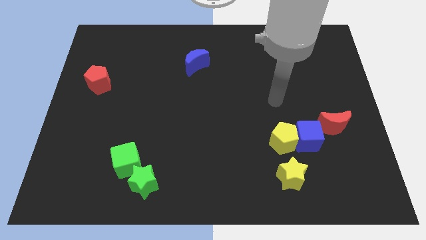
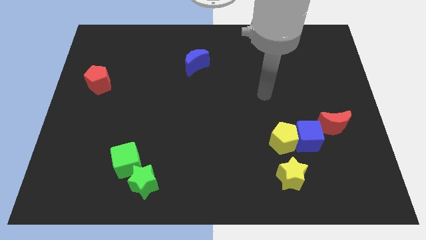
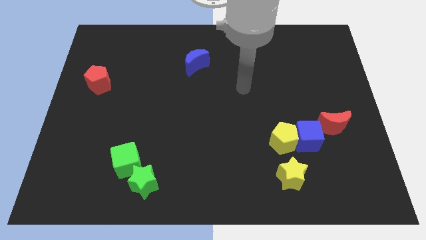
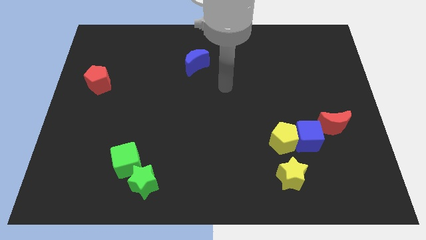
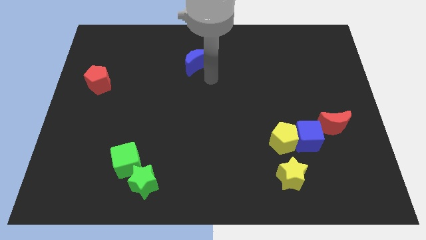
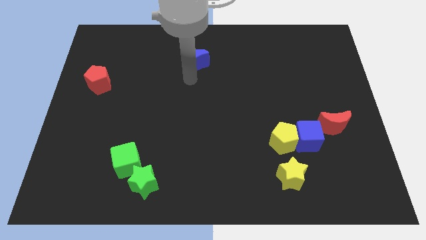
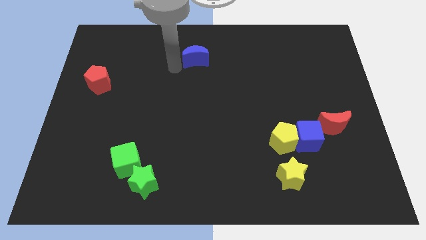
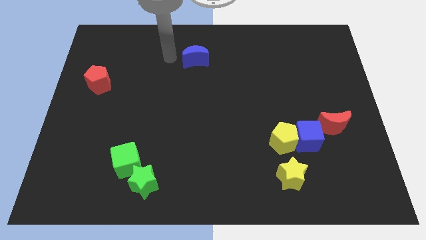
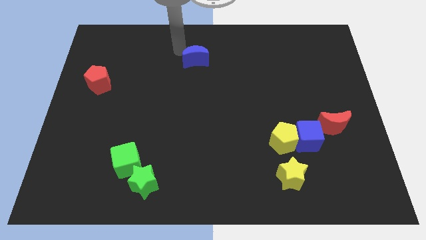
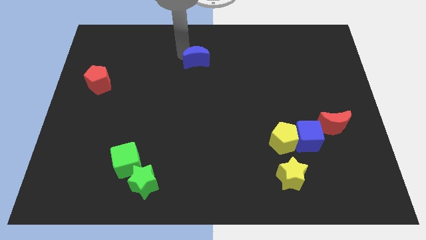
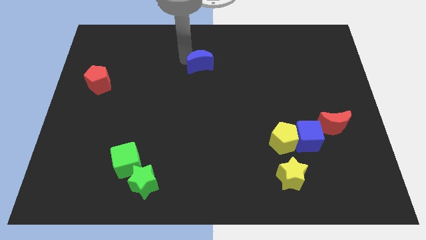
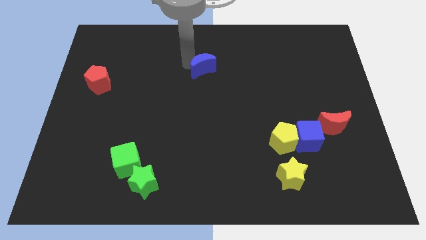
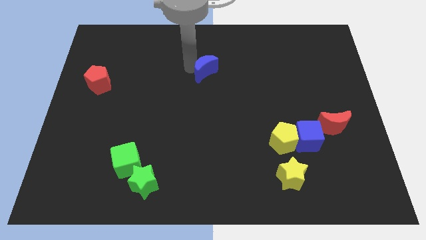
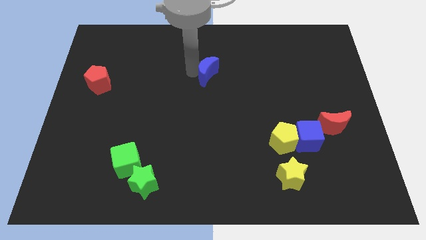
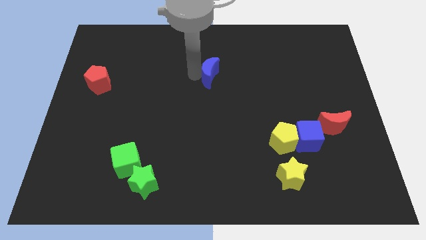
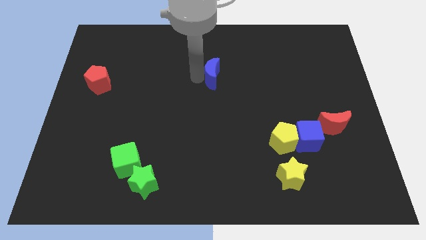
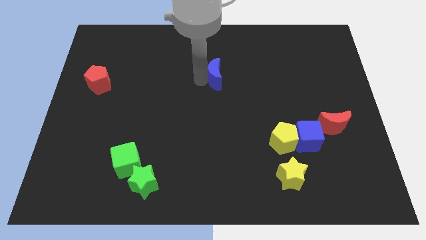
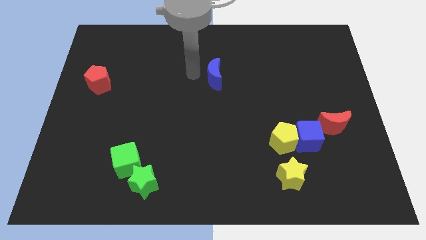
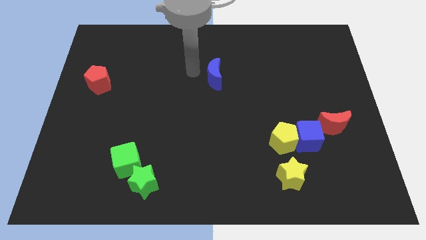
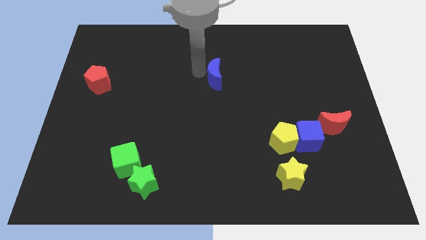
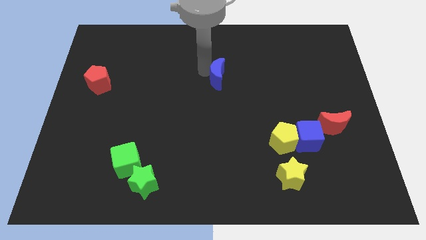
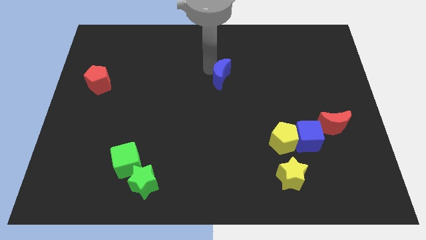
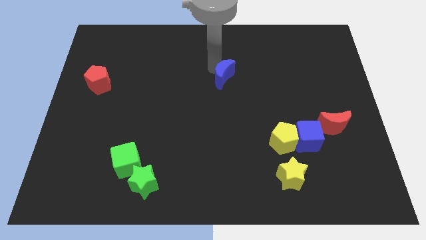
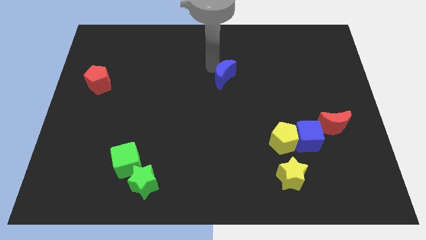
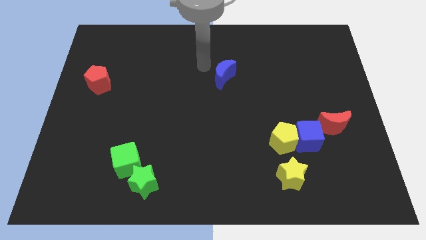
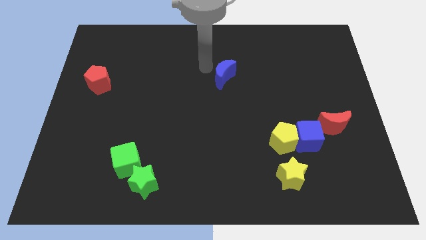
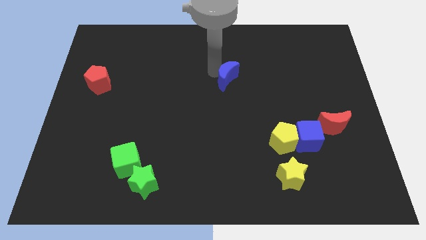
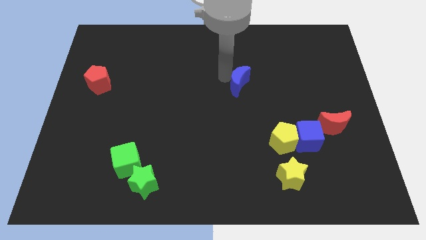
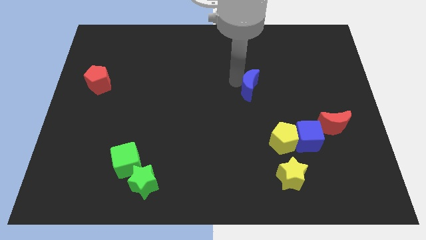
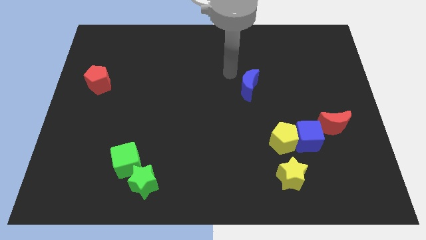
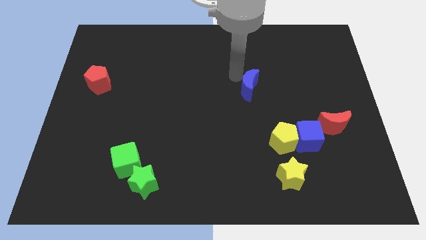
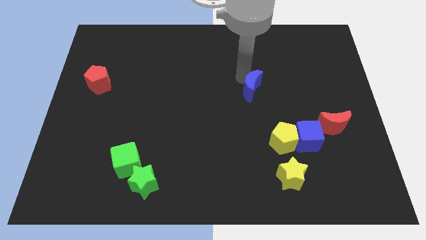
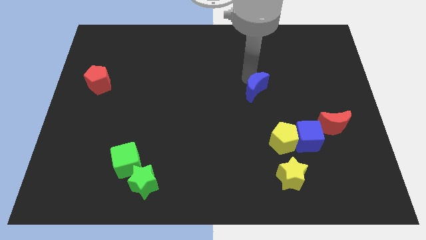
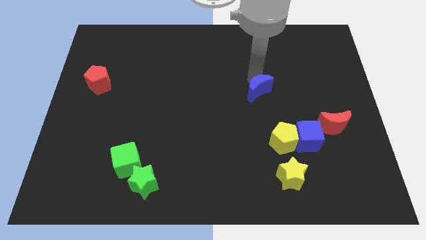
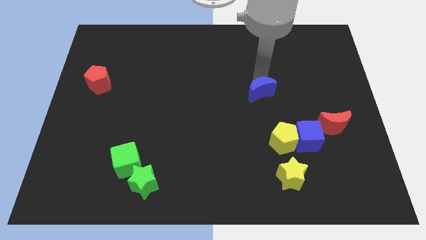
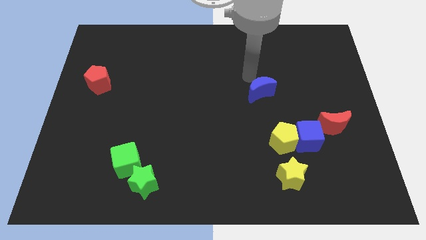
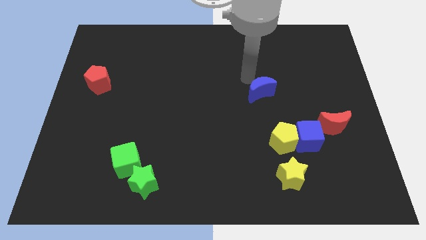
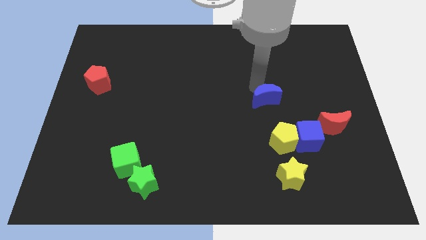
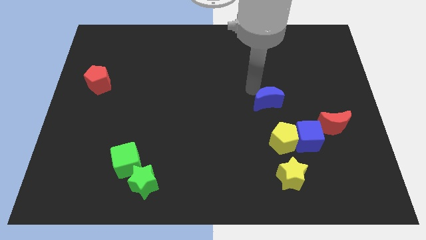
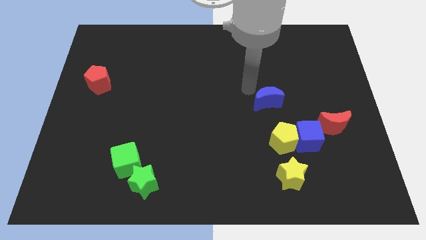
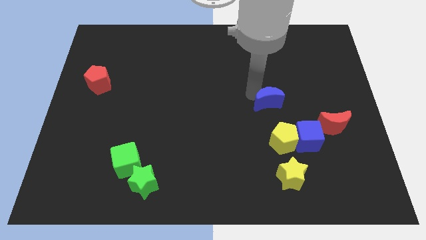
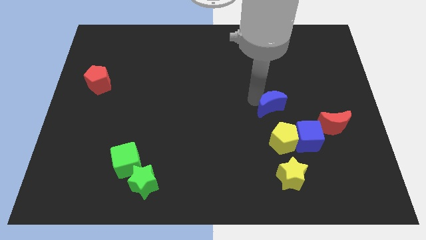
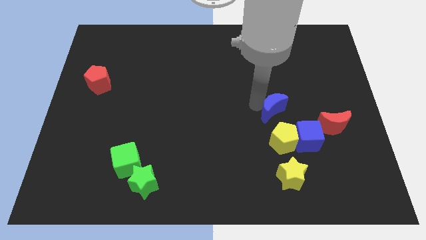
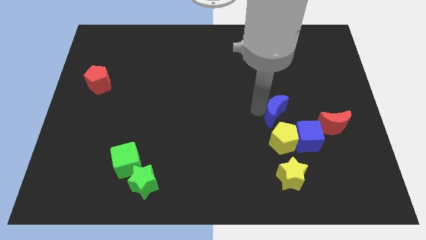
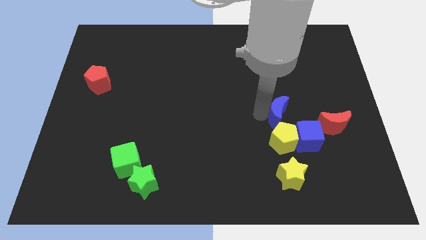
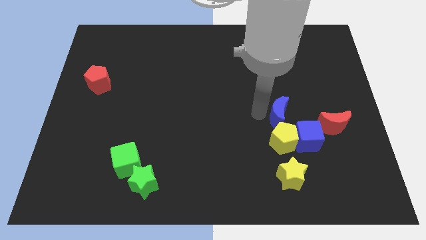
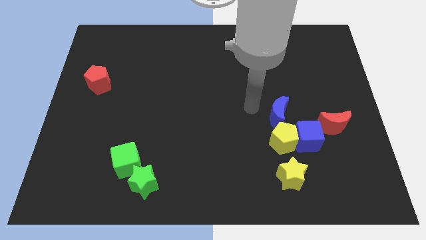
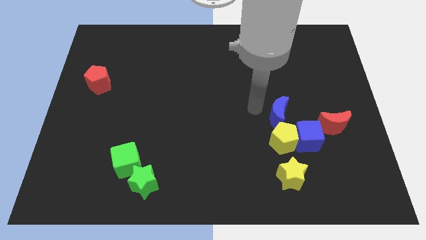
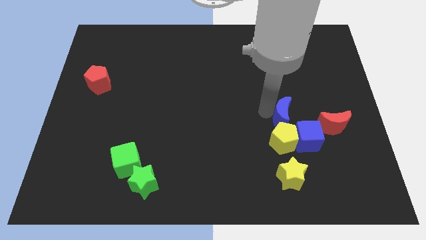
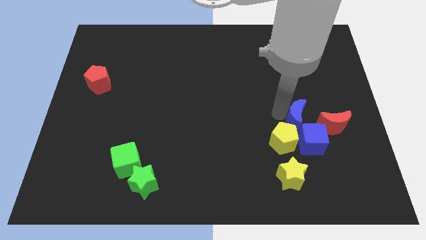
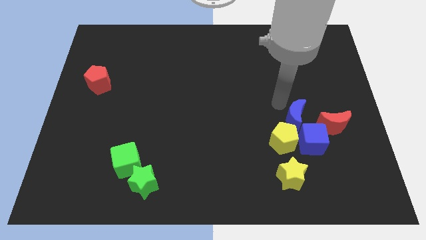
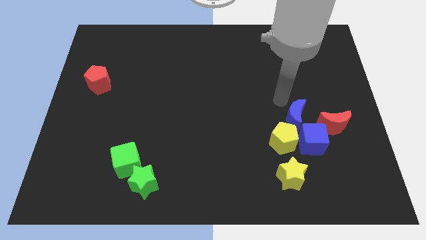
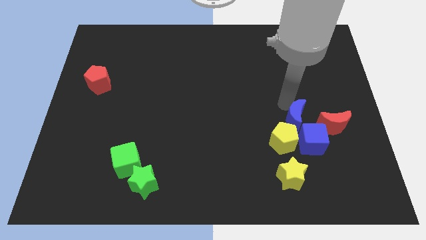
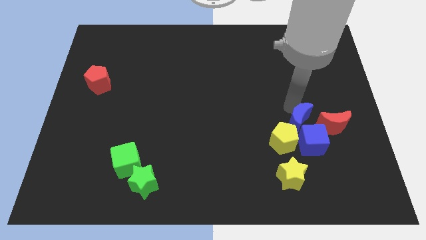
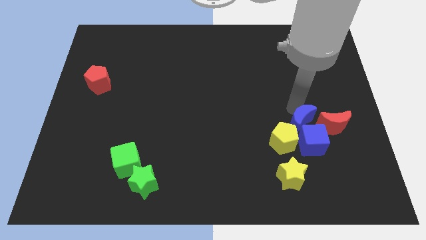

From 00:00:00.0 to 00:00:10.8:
put the blue moon next to the blue cube

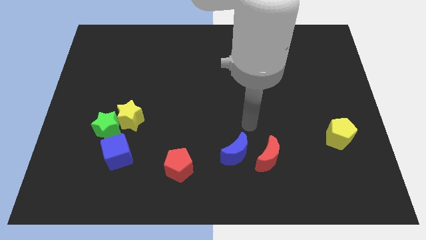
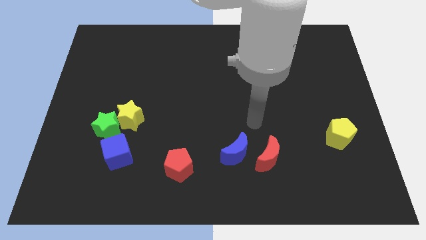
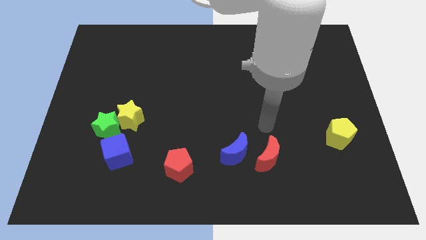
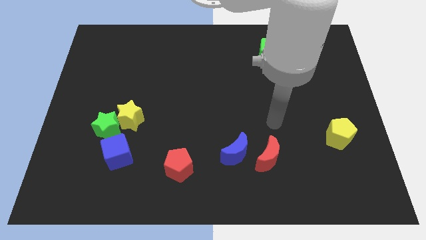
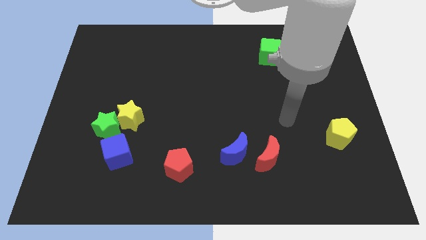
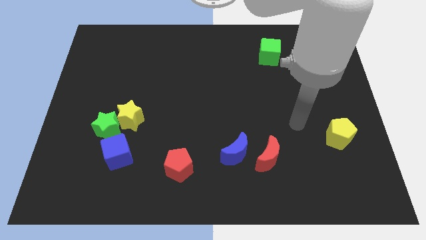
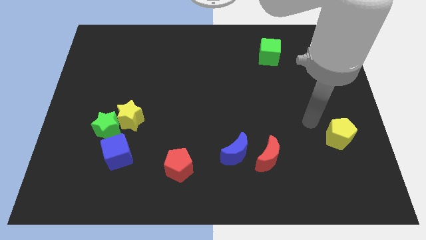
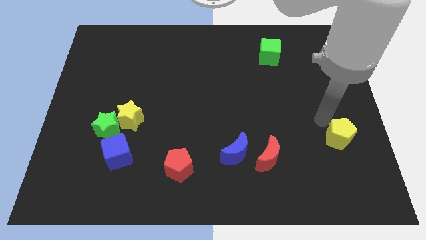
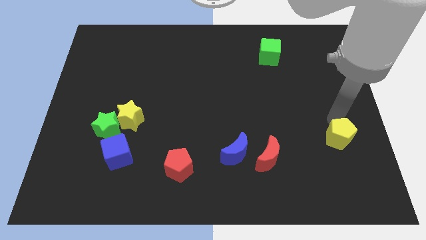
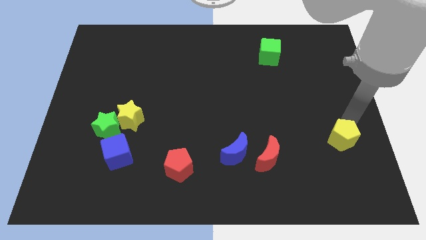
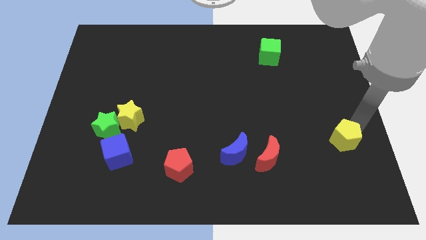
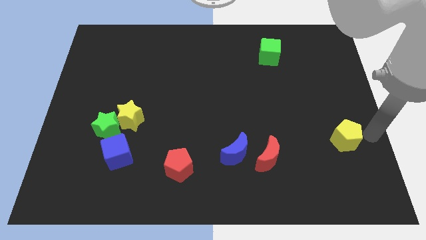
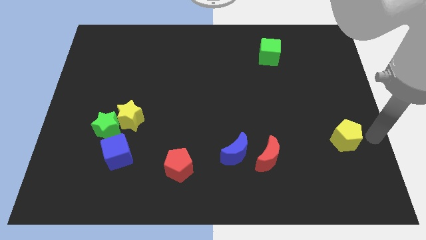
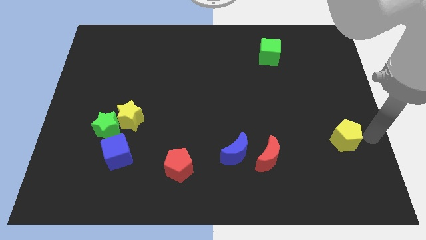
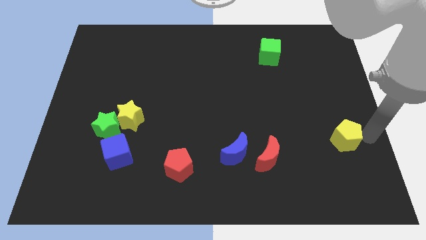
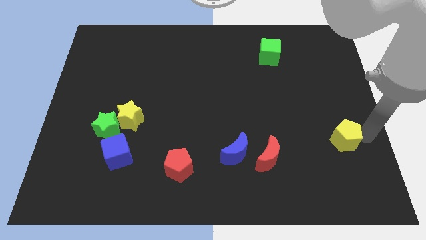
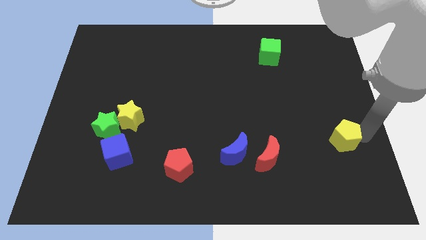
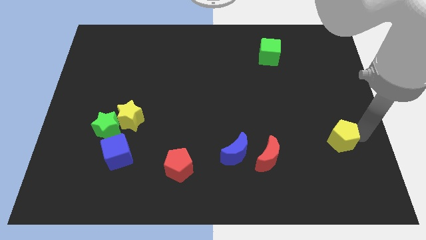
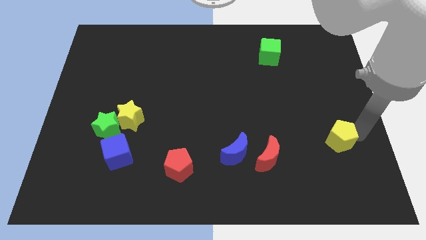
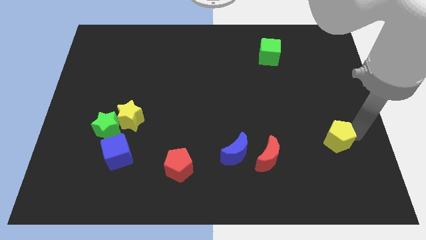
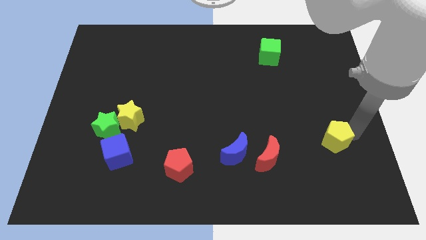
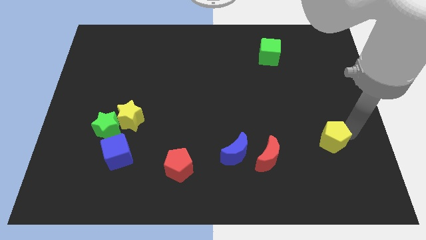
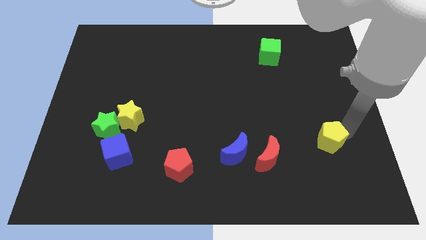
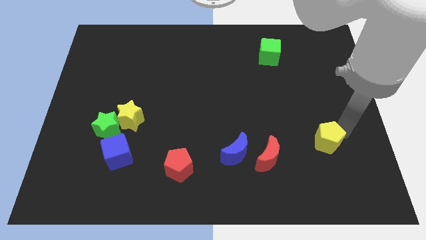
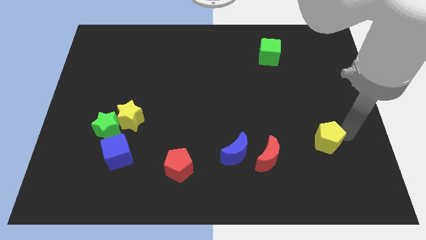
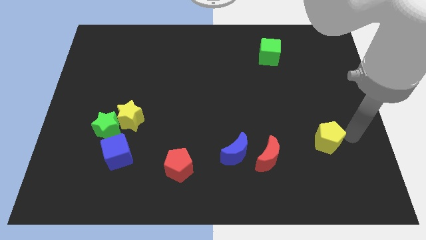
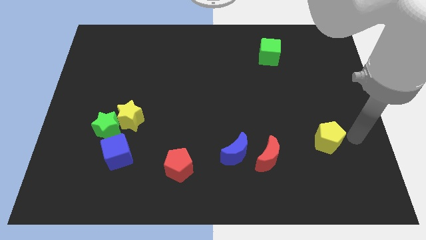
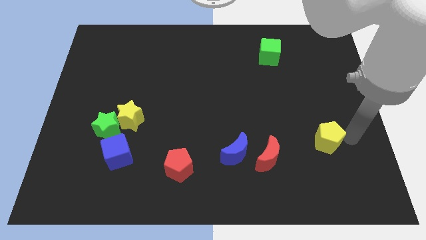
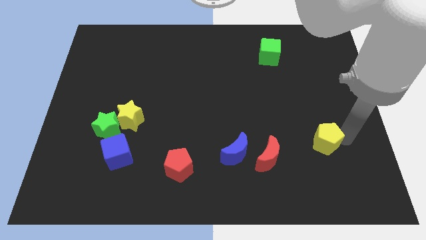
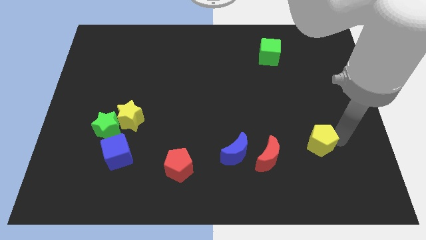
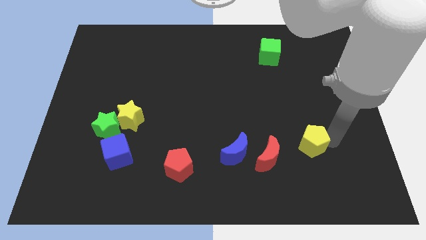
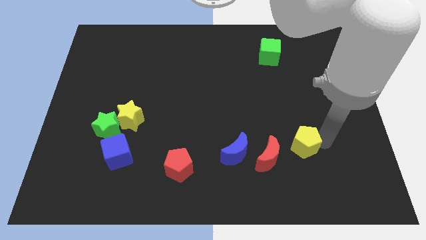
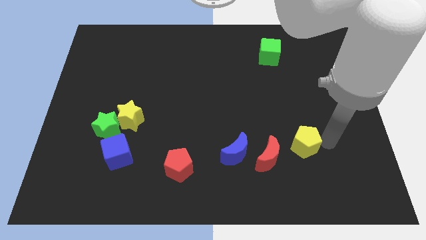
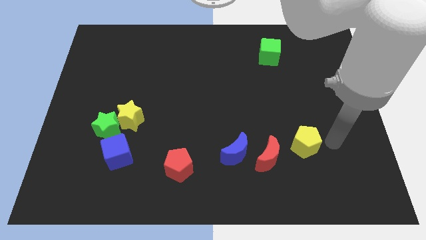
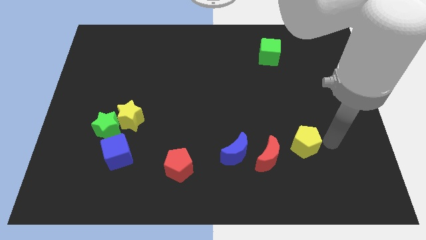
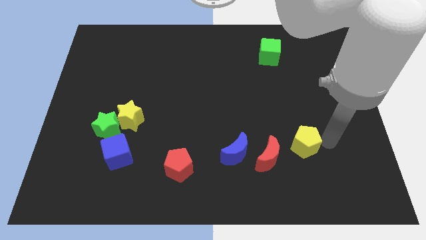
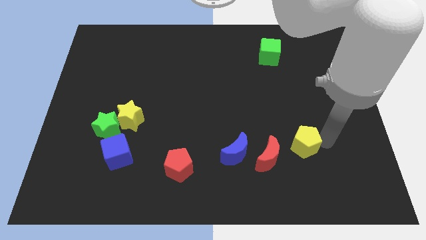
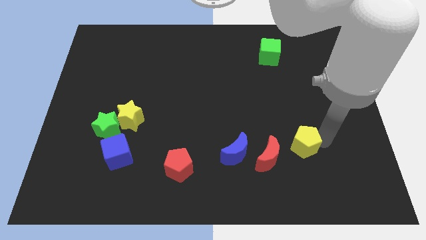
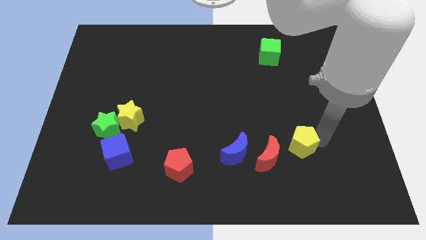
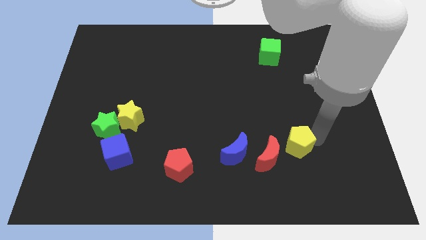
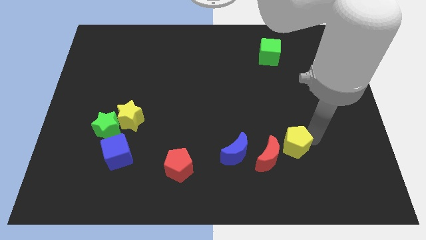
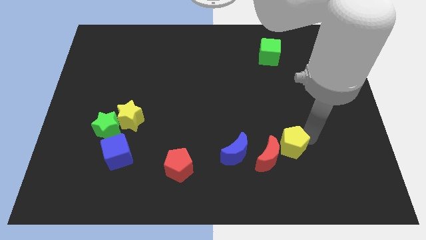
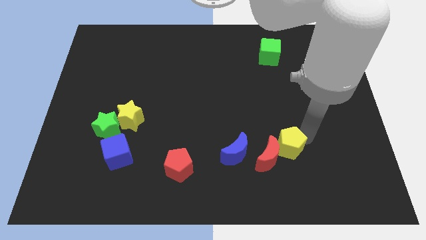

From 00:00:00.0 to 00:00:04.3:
push the yellow pentagon next to the red moon
